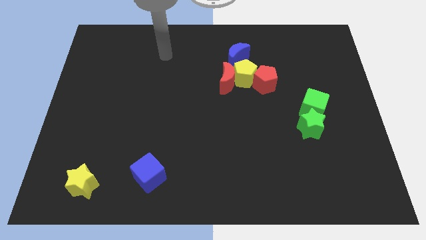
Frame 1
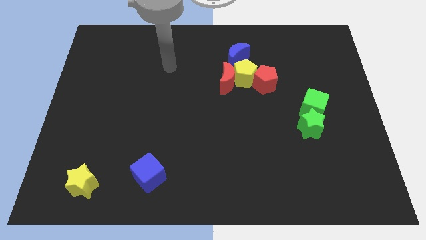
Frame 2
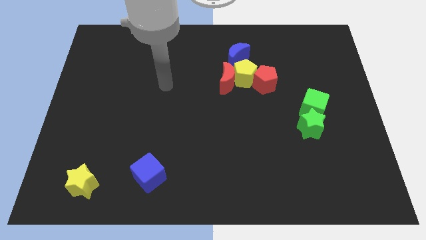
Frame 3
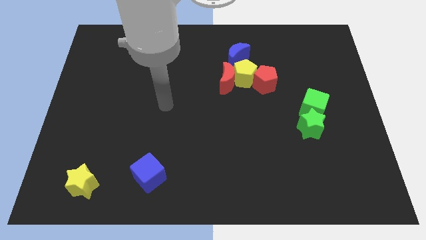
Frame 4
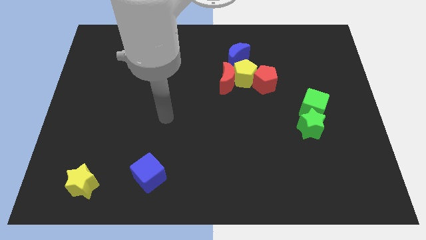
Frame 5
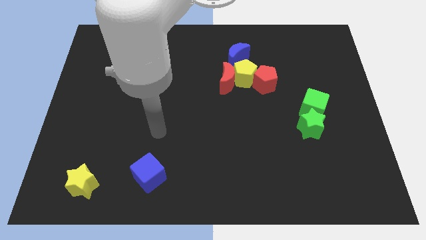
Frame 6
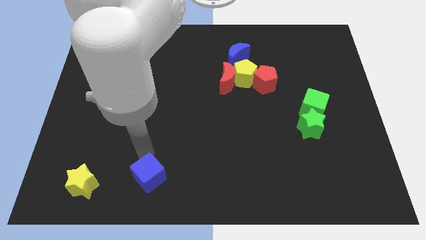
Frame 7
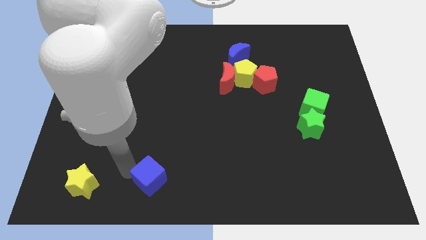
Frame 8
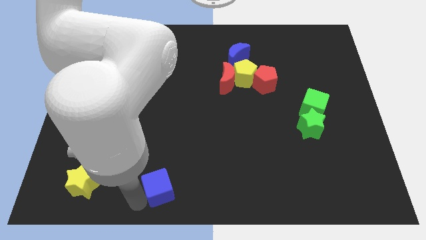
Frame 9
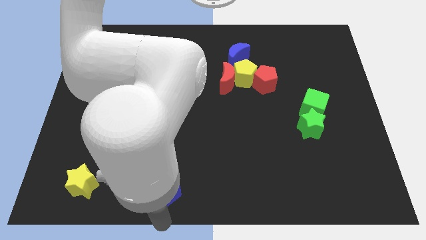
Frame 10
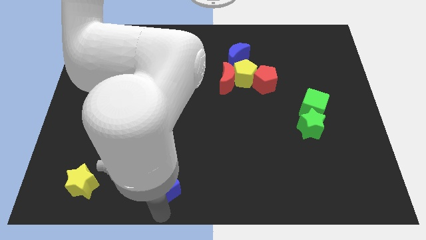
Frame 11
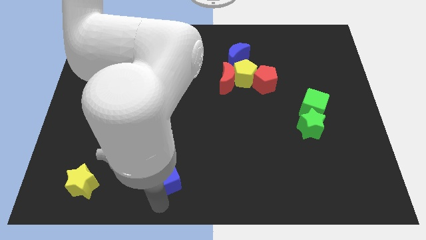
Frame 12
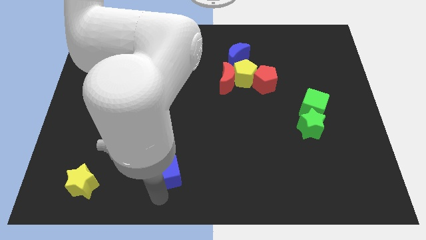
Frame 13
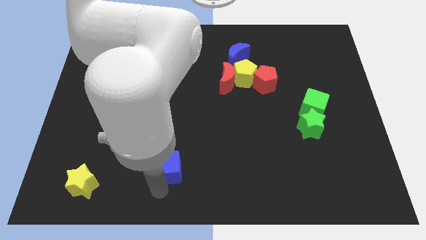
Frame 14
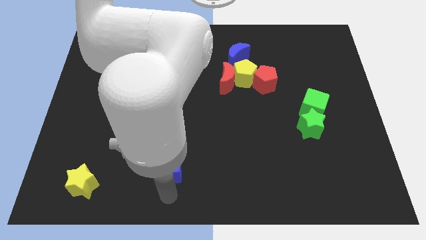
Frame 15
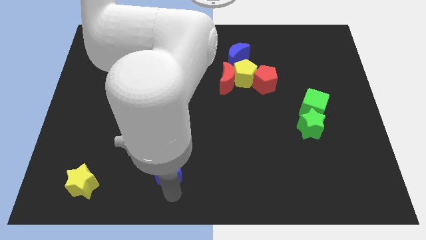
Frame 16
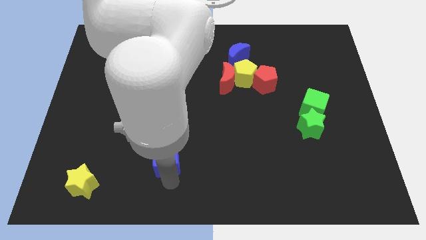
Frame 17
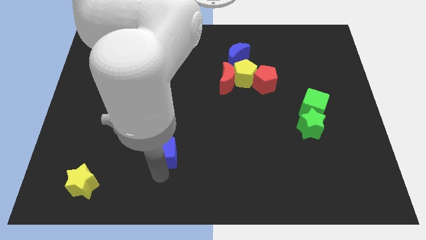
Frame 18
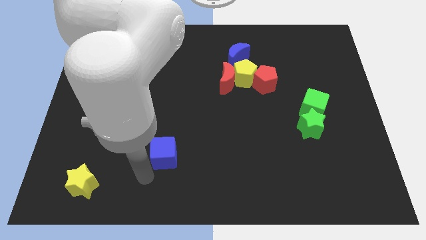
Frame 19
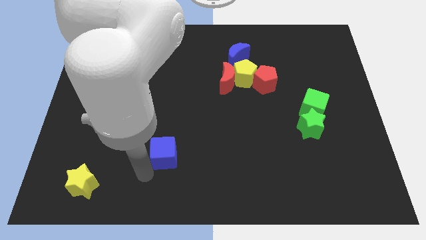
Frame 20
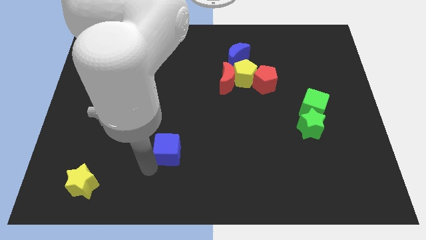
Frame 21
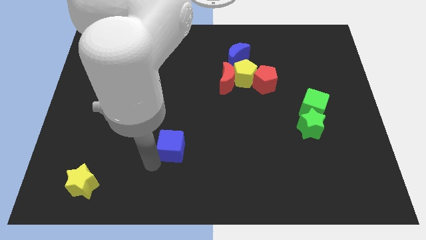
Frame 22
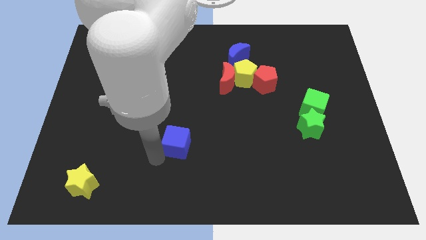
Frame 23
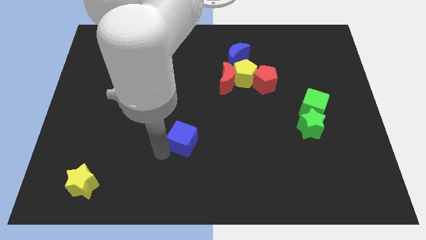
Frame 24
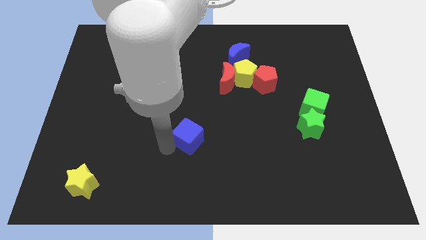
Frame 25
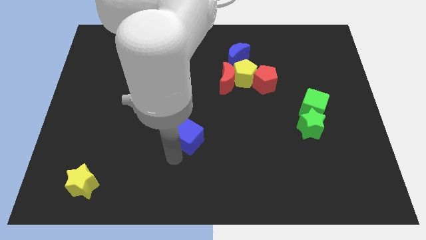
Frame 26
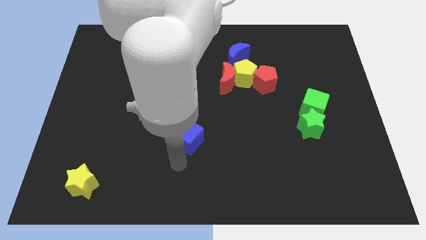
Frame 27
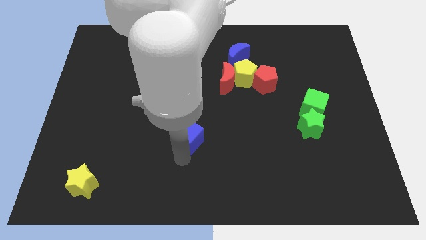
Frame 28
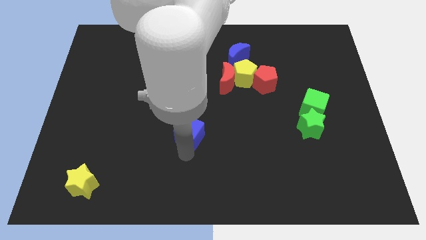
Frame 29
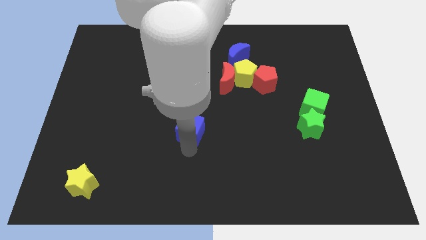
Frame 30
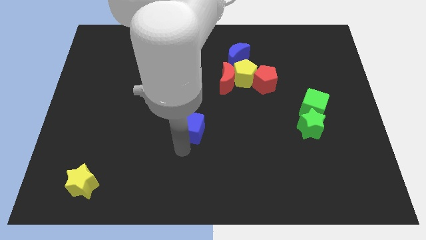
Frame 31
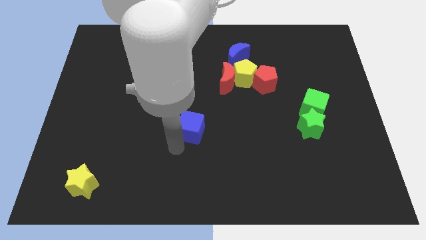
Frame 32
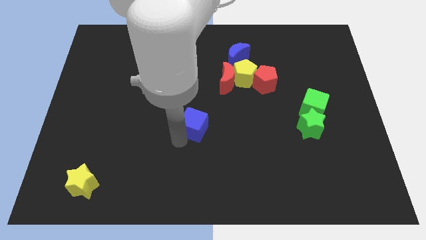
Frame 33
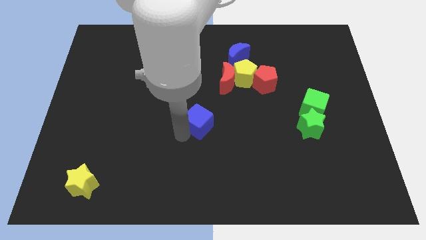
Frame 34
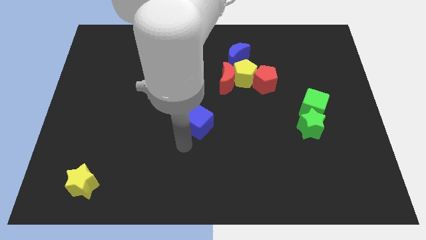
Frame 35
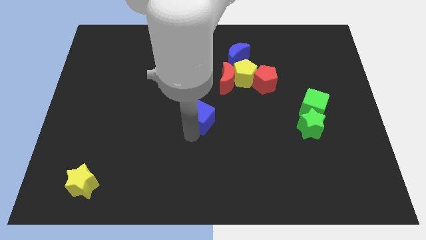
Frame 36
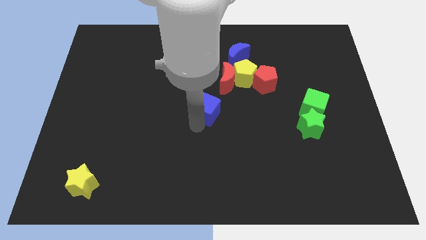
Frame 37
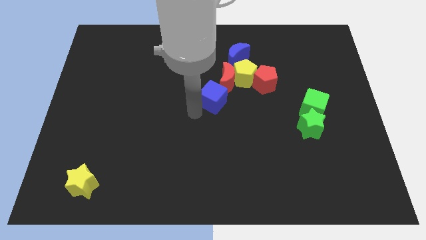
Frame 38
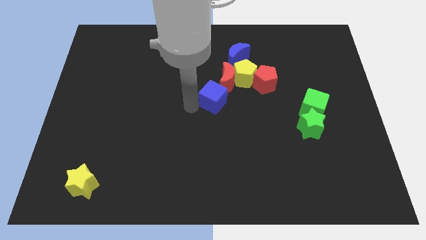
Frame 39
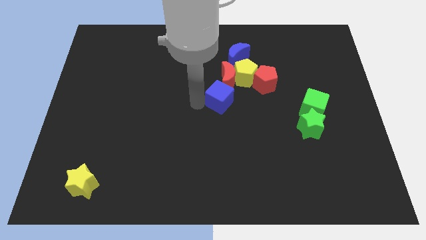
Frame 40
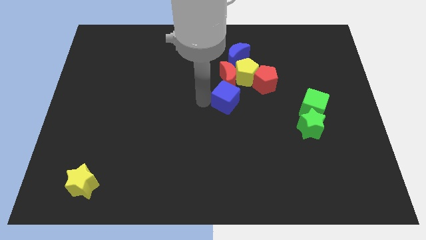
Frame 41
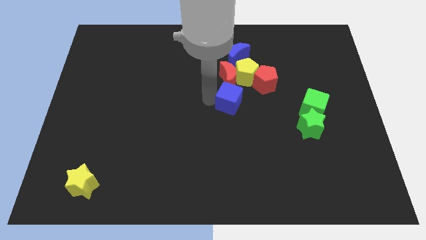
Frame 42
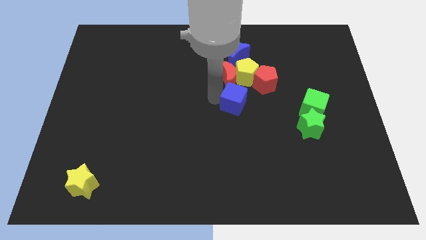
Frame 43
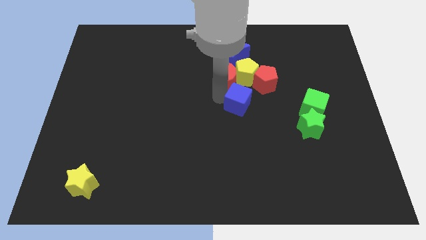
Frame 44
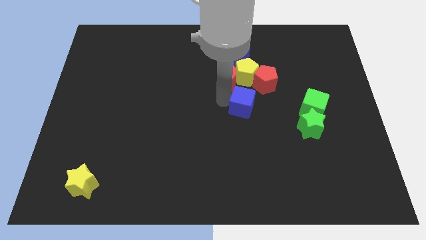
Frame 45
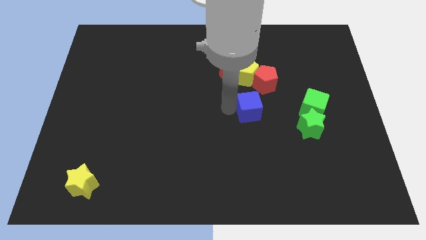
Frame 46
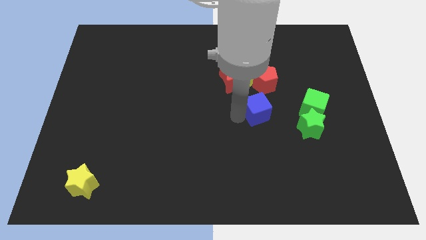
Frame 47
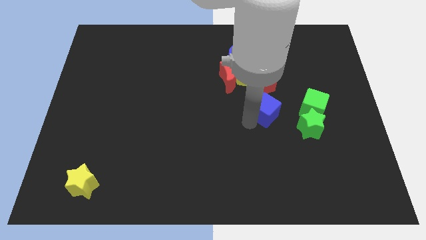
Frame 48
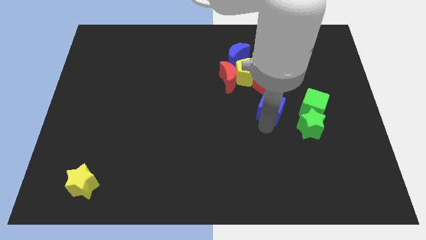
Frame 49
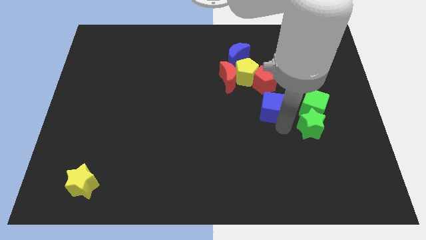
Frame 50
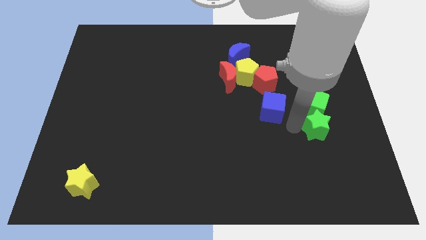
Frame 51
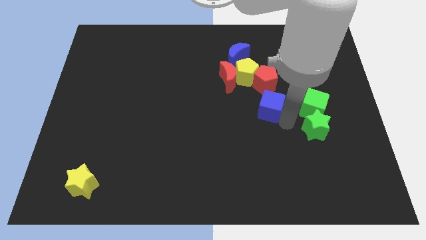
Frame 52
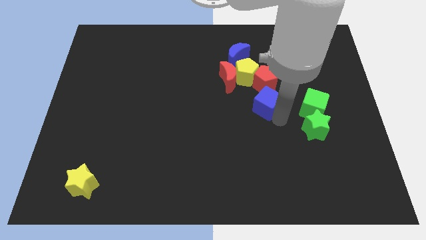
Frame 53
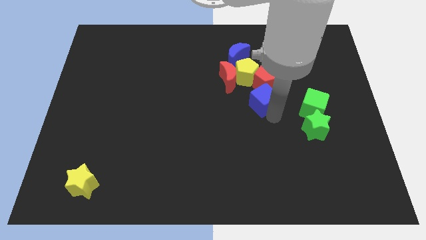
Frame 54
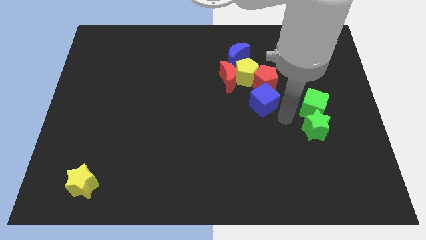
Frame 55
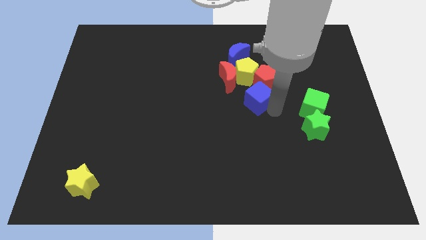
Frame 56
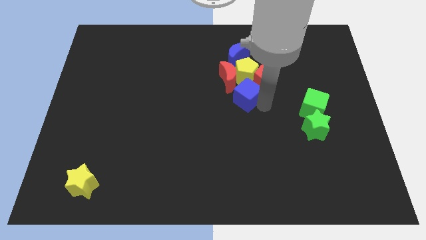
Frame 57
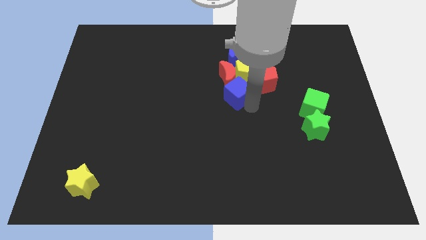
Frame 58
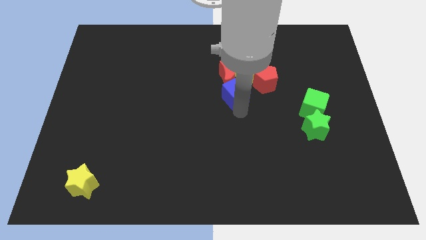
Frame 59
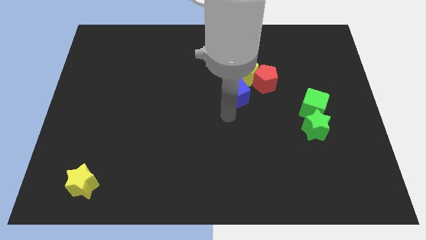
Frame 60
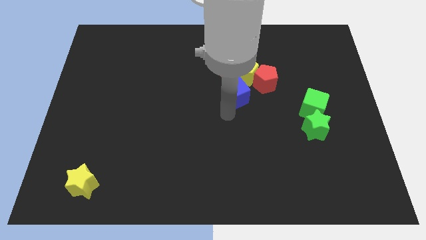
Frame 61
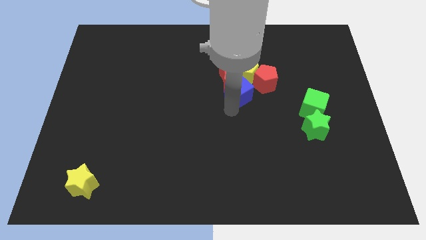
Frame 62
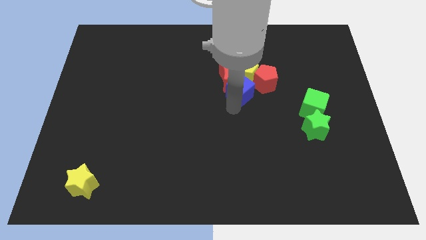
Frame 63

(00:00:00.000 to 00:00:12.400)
slide the blue cube to the yellow pentagon
